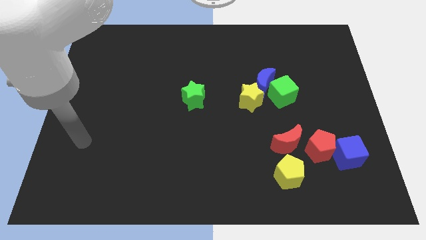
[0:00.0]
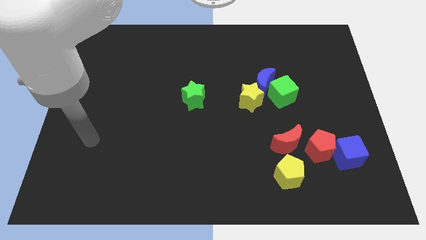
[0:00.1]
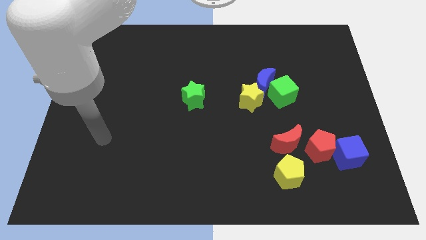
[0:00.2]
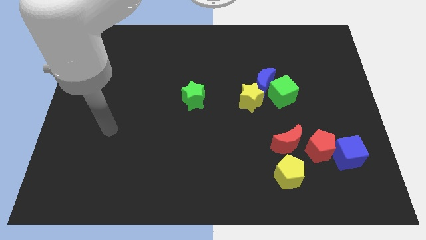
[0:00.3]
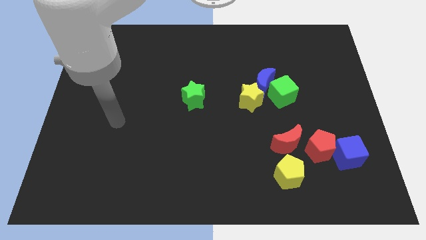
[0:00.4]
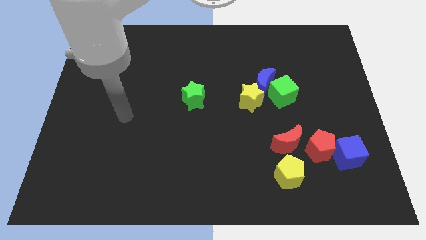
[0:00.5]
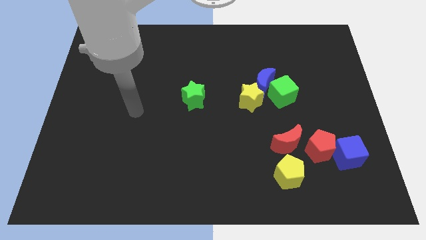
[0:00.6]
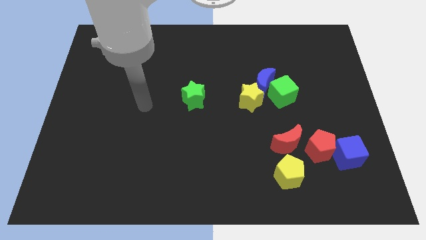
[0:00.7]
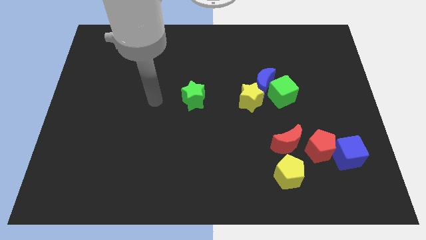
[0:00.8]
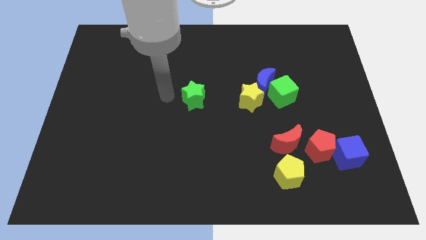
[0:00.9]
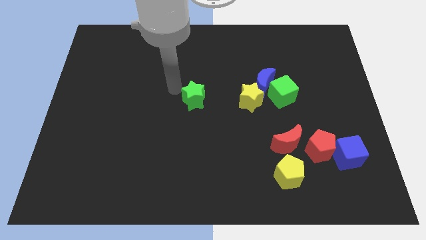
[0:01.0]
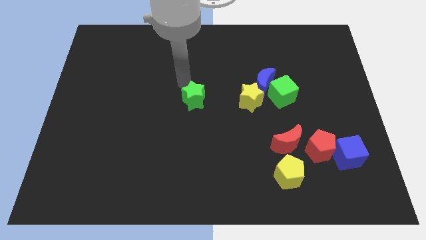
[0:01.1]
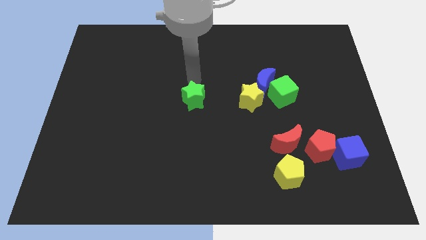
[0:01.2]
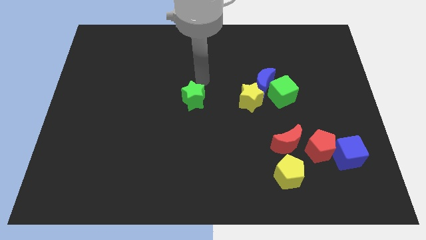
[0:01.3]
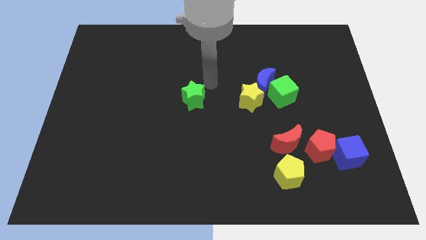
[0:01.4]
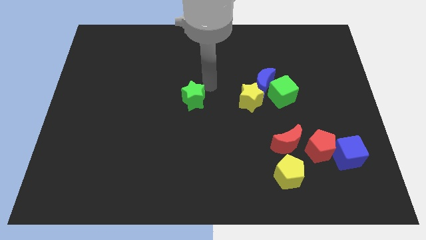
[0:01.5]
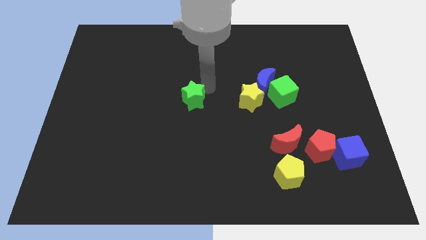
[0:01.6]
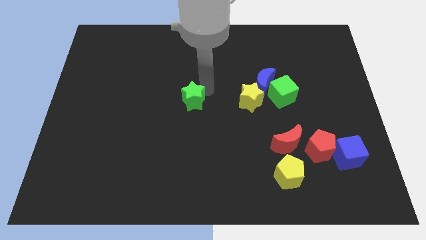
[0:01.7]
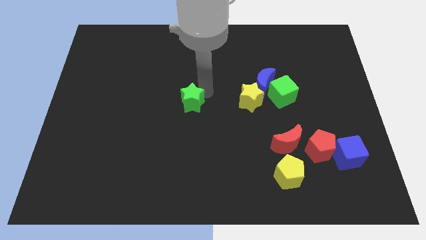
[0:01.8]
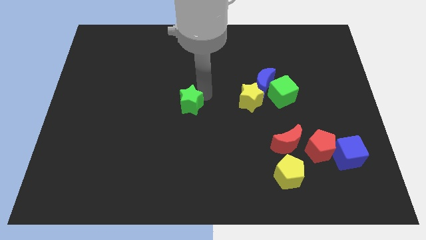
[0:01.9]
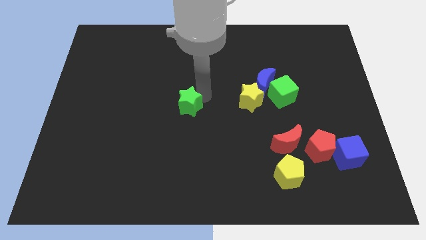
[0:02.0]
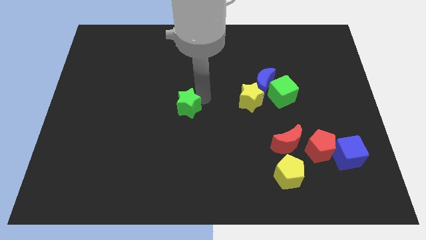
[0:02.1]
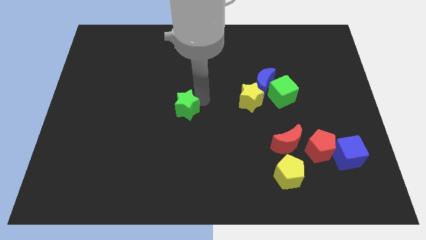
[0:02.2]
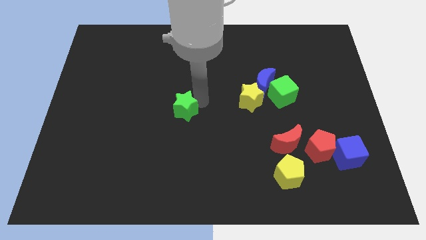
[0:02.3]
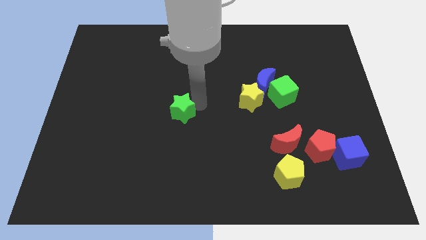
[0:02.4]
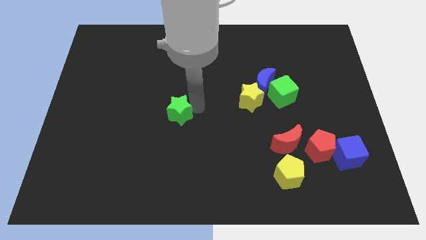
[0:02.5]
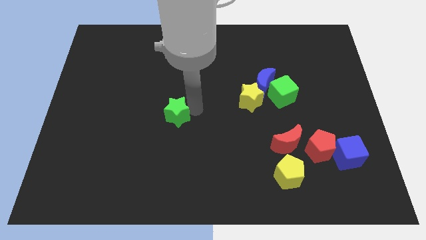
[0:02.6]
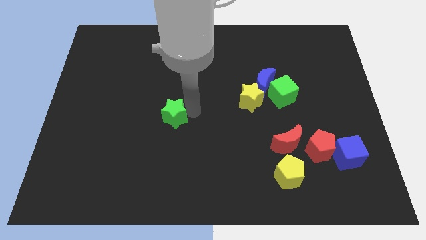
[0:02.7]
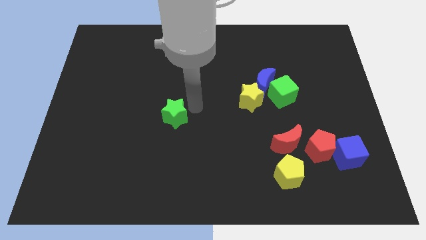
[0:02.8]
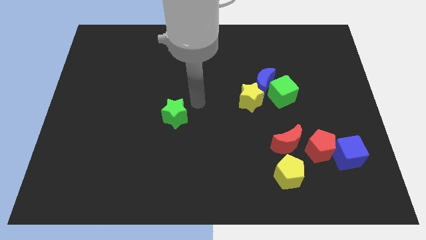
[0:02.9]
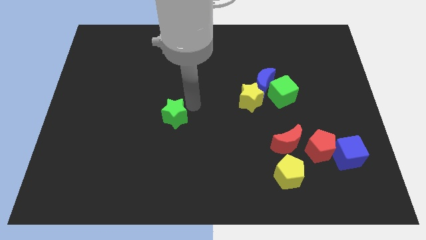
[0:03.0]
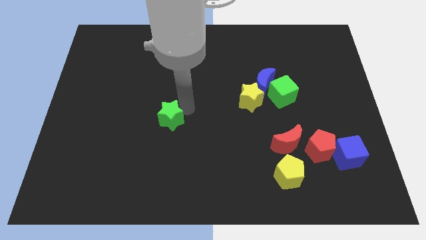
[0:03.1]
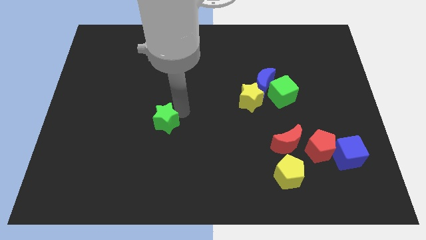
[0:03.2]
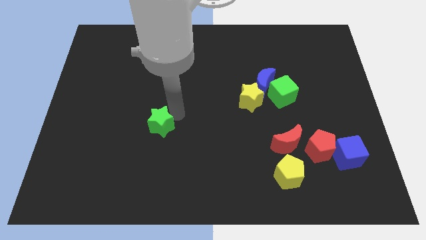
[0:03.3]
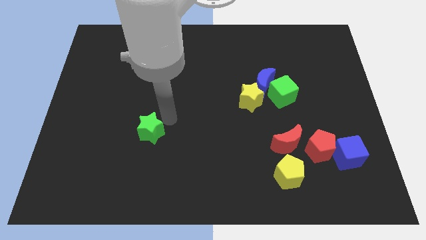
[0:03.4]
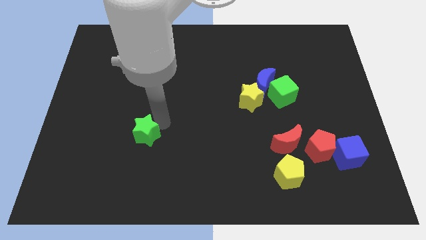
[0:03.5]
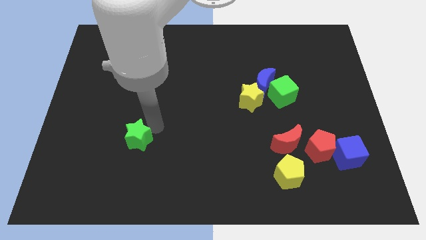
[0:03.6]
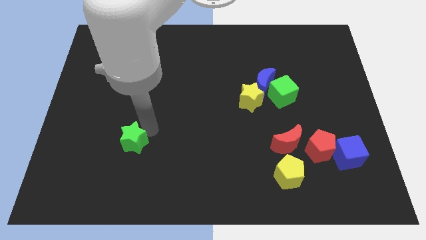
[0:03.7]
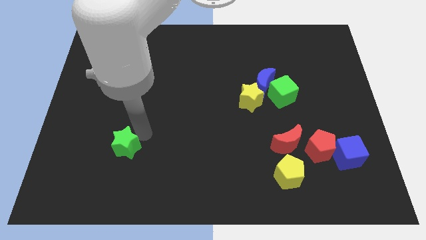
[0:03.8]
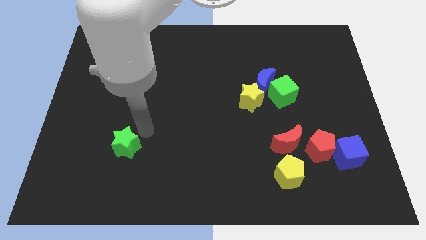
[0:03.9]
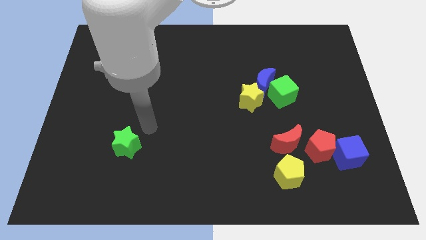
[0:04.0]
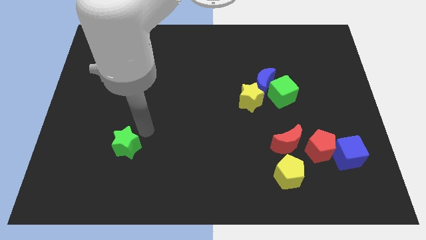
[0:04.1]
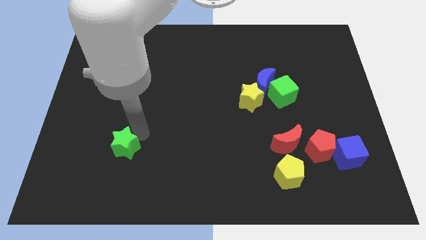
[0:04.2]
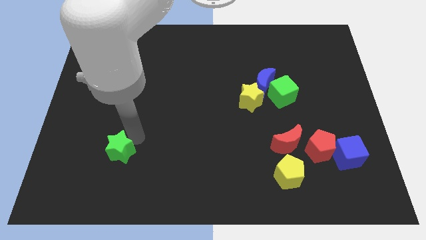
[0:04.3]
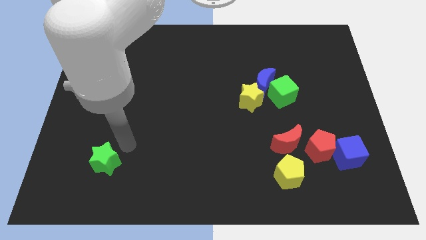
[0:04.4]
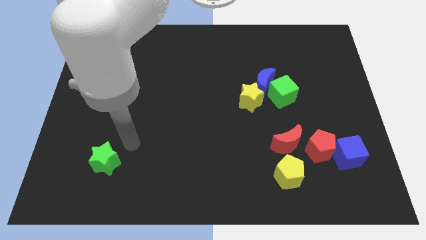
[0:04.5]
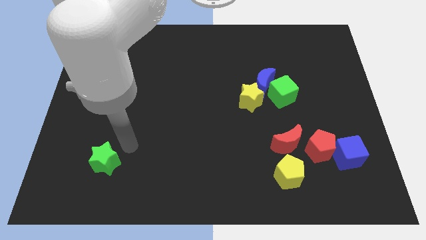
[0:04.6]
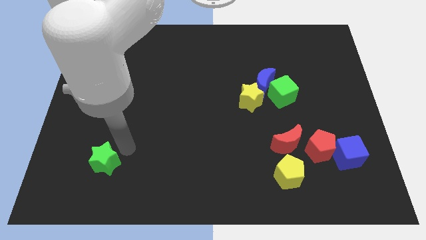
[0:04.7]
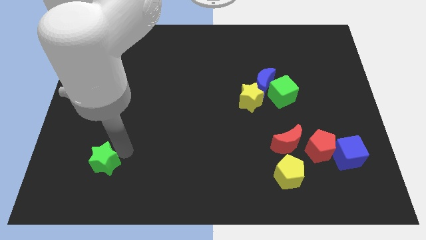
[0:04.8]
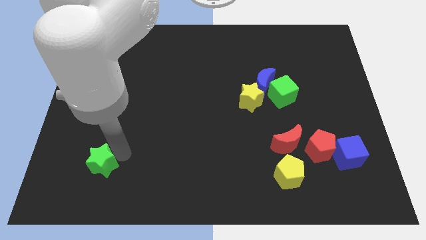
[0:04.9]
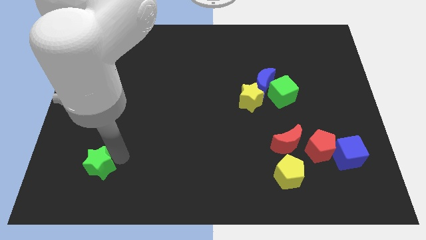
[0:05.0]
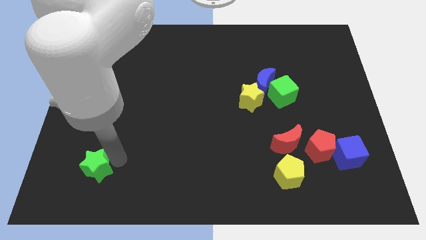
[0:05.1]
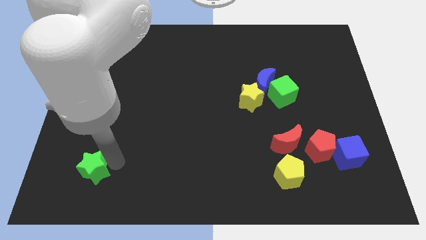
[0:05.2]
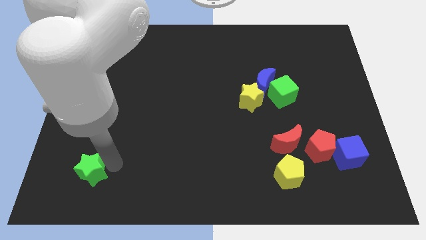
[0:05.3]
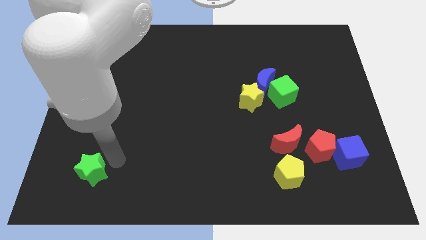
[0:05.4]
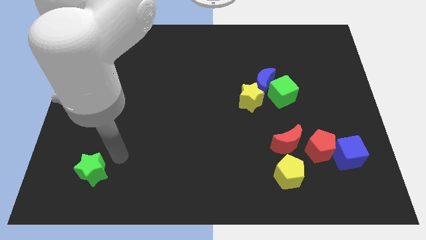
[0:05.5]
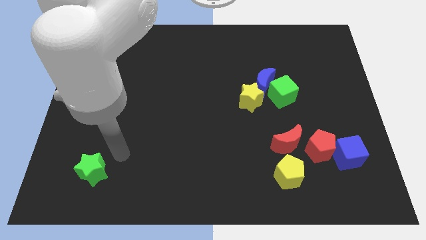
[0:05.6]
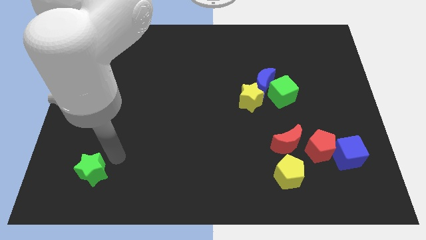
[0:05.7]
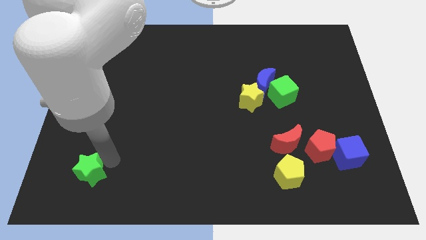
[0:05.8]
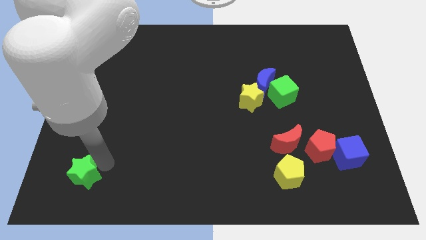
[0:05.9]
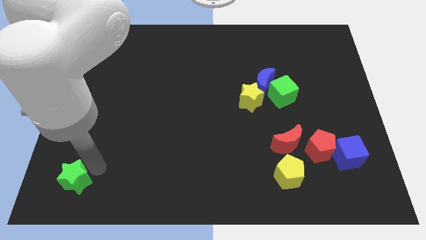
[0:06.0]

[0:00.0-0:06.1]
slide the green star to the bottom left of the board
